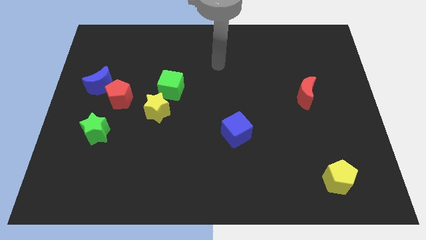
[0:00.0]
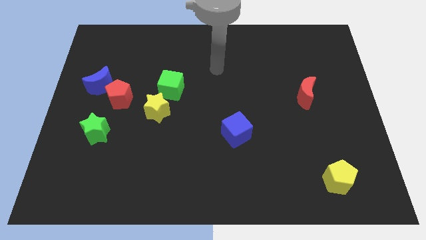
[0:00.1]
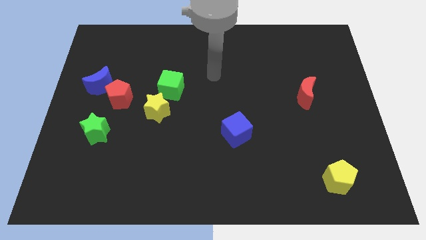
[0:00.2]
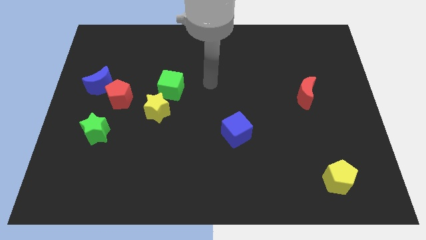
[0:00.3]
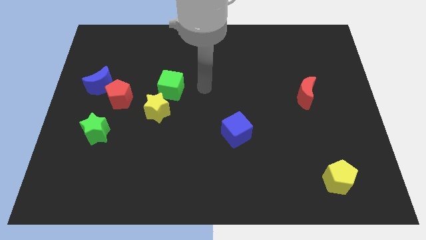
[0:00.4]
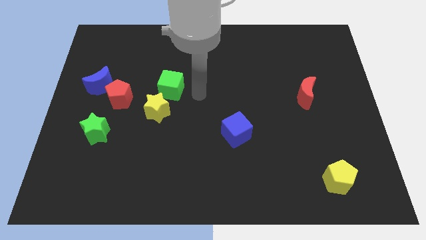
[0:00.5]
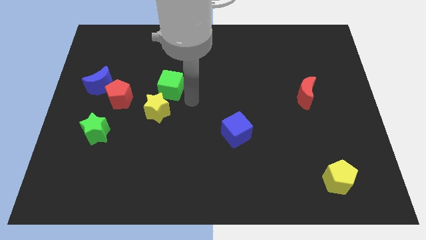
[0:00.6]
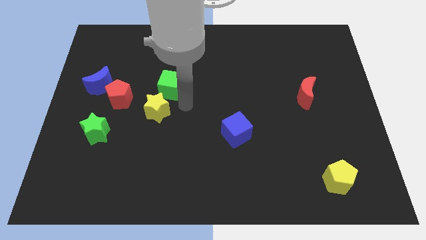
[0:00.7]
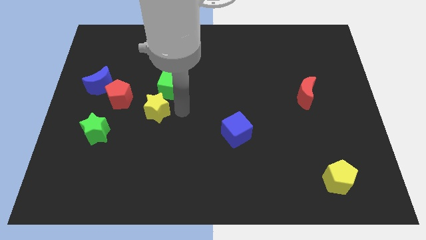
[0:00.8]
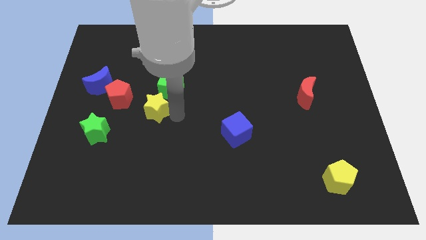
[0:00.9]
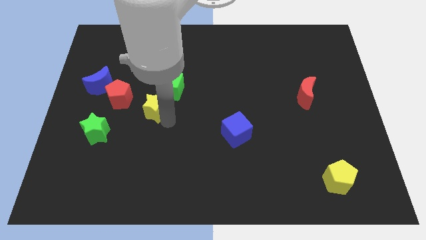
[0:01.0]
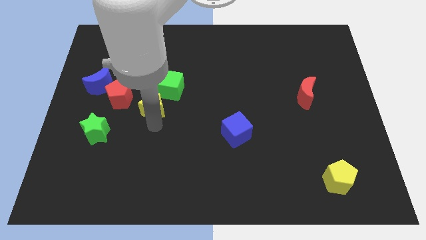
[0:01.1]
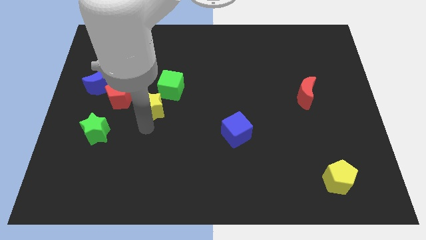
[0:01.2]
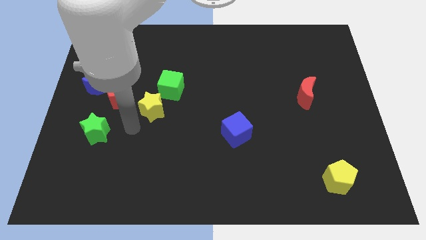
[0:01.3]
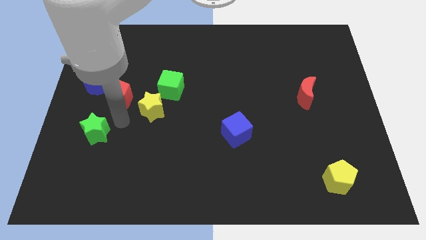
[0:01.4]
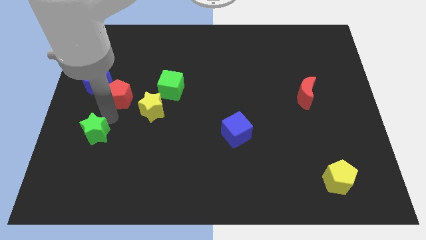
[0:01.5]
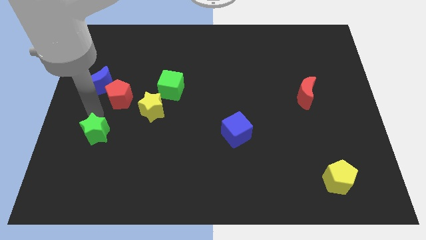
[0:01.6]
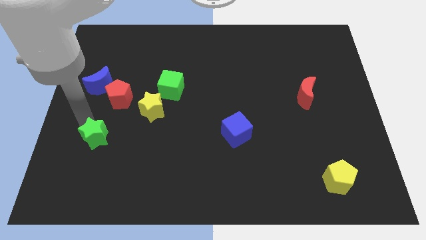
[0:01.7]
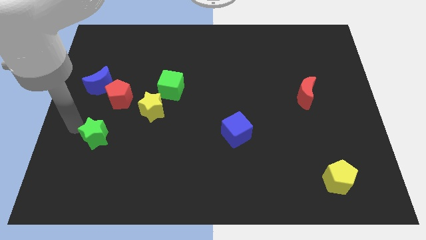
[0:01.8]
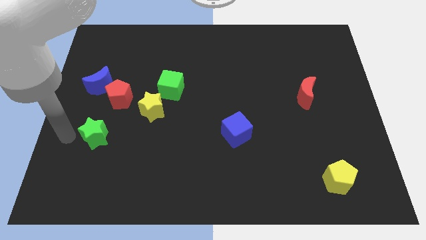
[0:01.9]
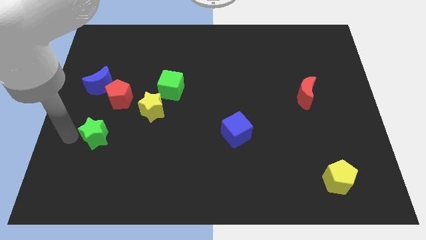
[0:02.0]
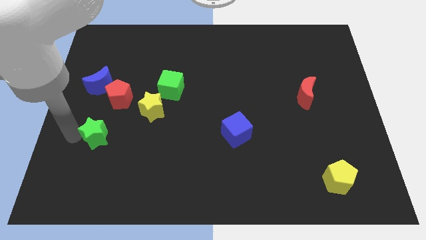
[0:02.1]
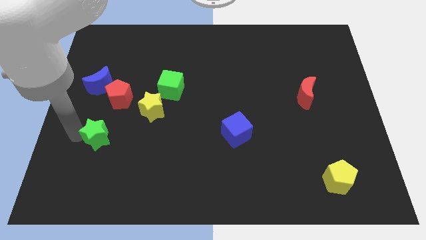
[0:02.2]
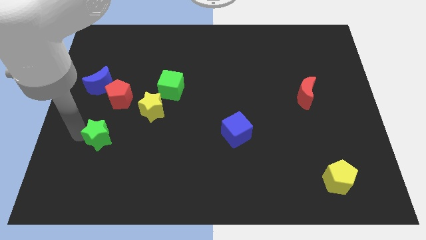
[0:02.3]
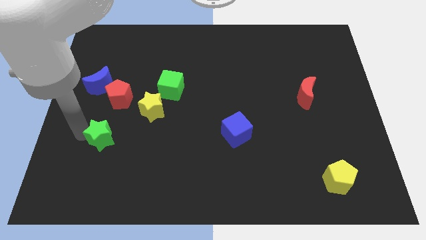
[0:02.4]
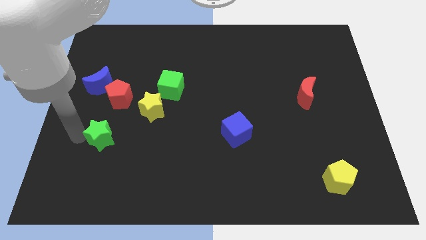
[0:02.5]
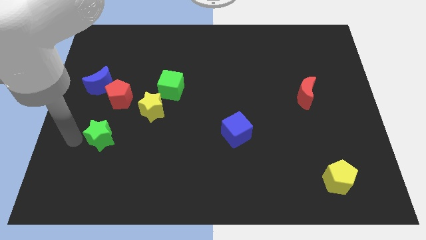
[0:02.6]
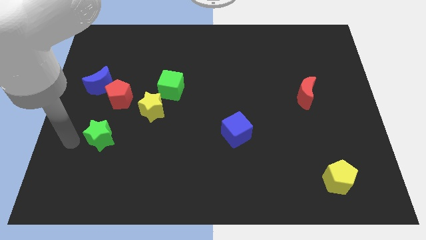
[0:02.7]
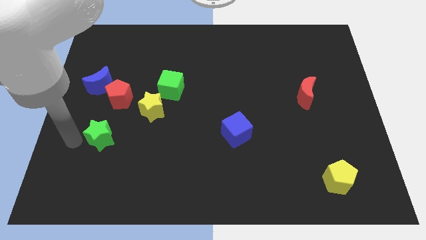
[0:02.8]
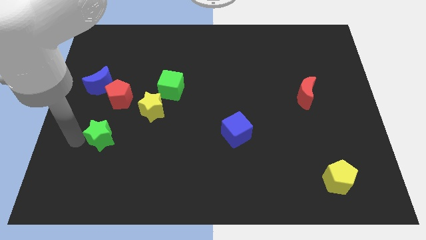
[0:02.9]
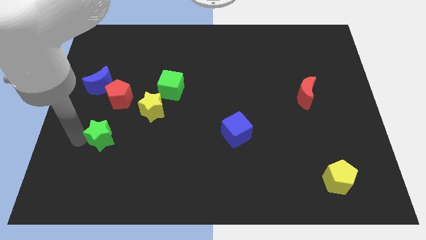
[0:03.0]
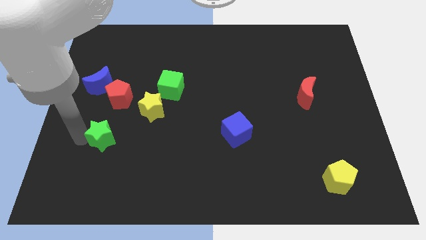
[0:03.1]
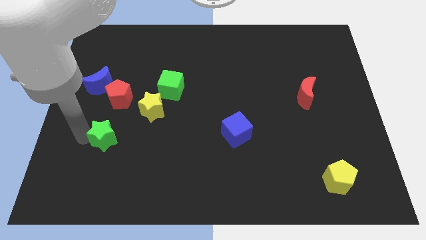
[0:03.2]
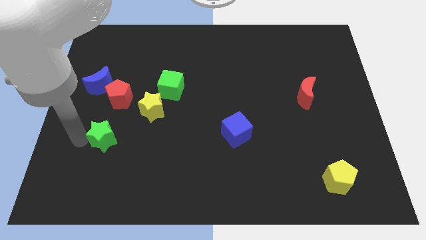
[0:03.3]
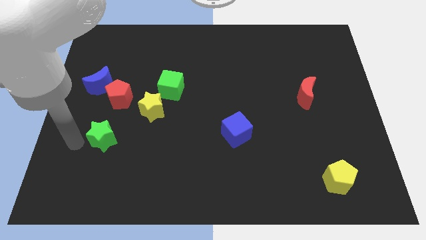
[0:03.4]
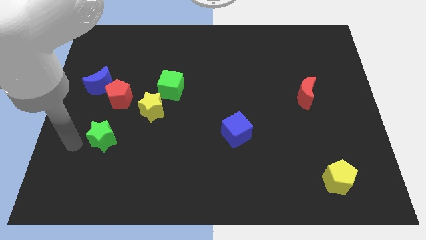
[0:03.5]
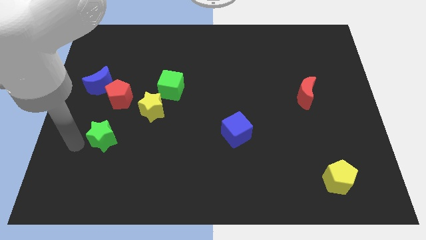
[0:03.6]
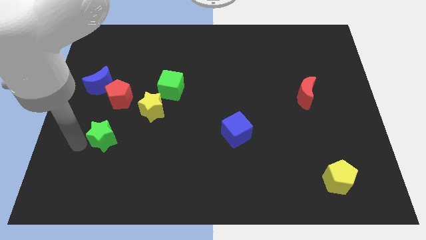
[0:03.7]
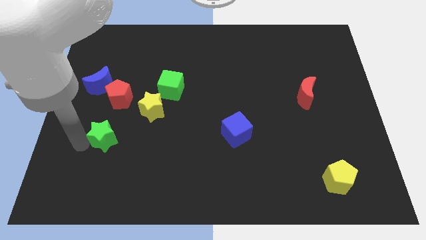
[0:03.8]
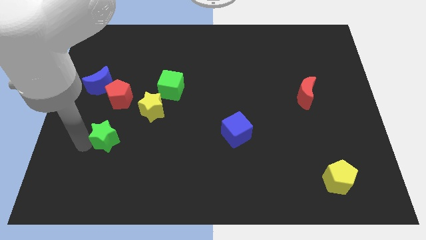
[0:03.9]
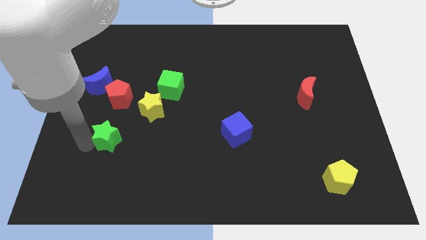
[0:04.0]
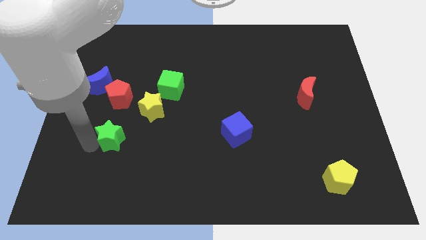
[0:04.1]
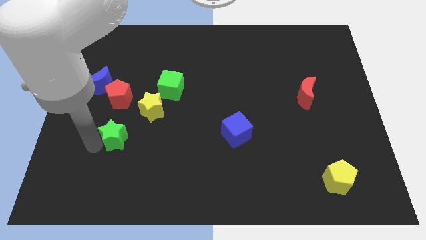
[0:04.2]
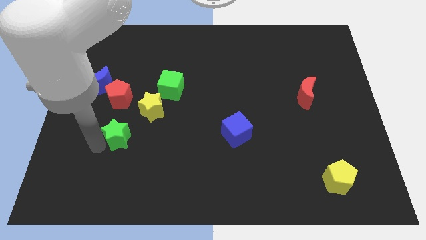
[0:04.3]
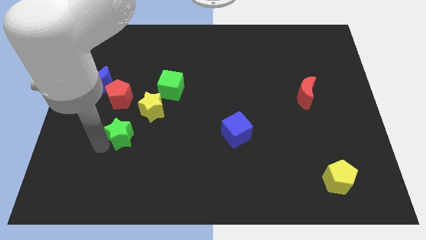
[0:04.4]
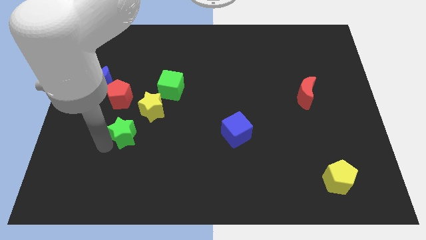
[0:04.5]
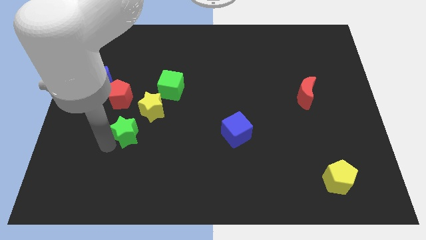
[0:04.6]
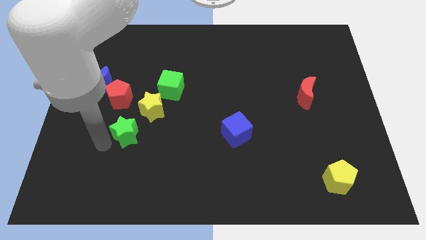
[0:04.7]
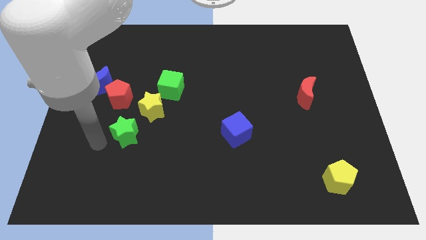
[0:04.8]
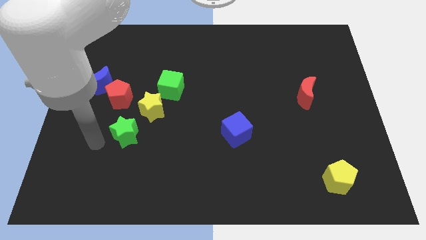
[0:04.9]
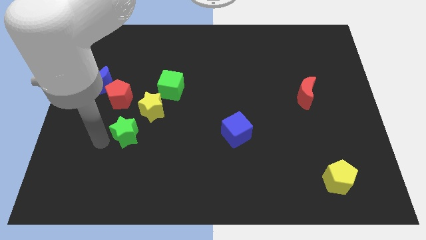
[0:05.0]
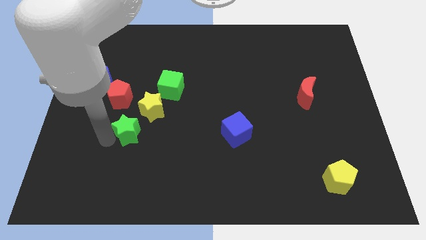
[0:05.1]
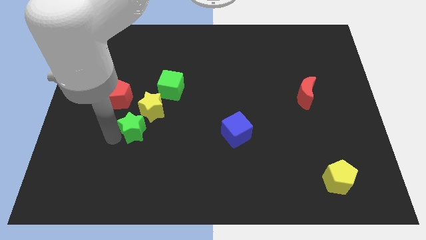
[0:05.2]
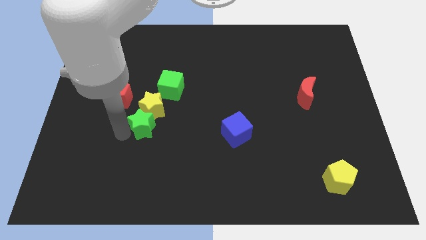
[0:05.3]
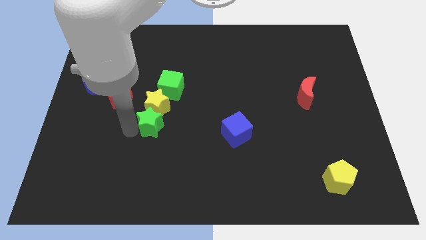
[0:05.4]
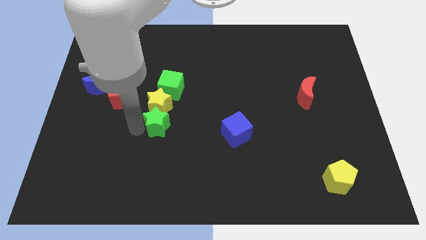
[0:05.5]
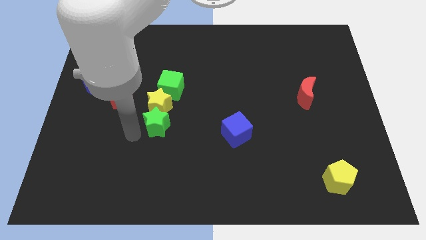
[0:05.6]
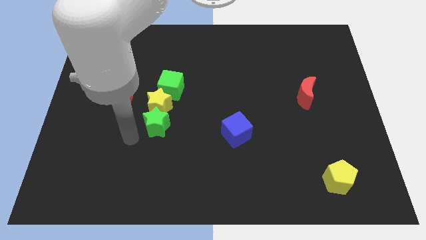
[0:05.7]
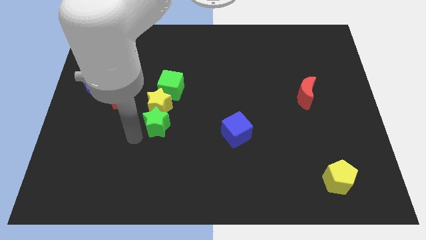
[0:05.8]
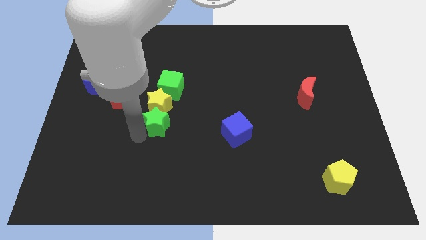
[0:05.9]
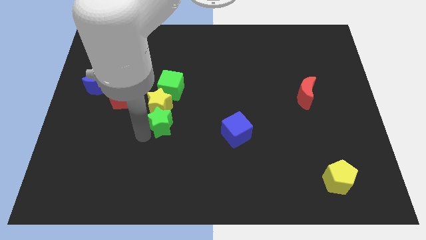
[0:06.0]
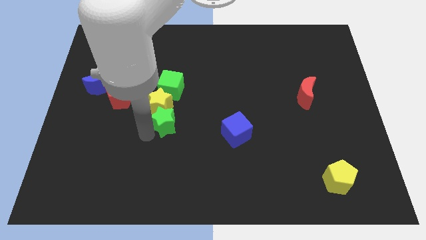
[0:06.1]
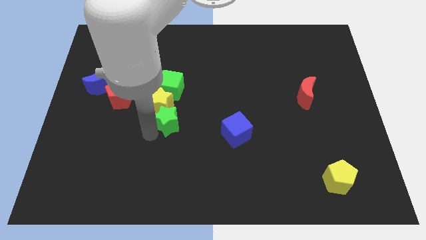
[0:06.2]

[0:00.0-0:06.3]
move the green star to the center of the board
